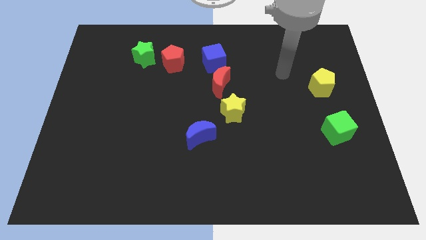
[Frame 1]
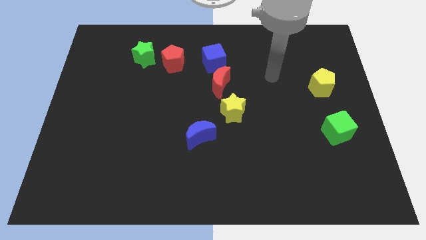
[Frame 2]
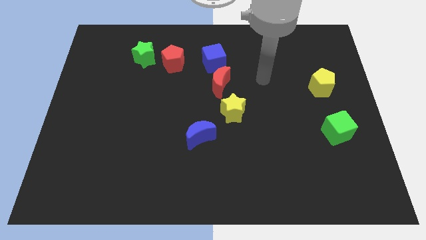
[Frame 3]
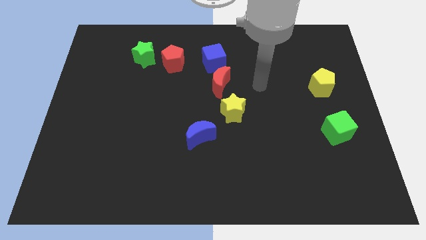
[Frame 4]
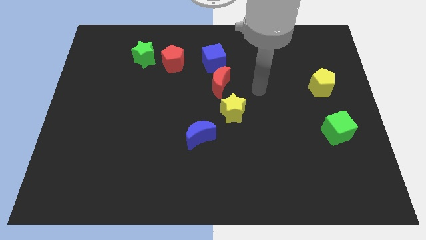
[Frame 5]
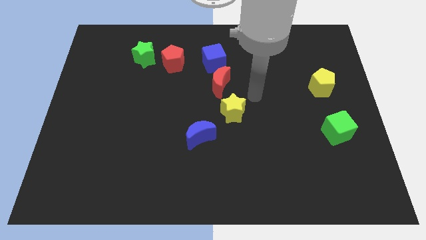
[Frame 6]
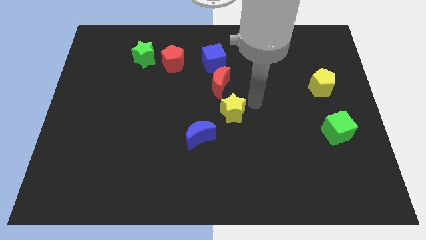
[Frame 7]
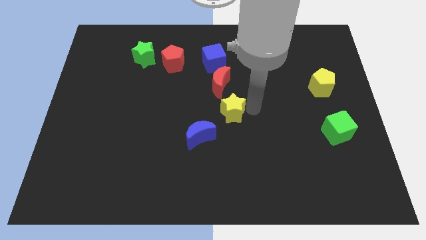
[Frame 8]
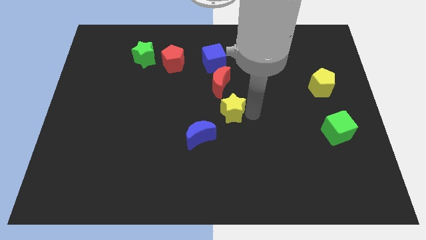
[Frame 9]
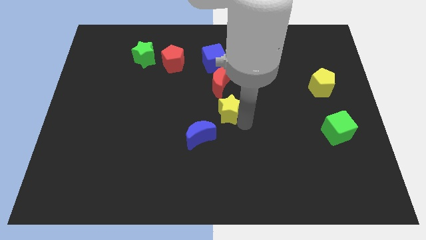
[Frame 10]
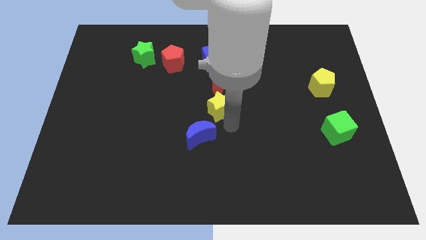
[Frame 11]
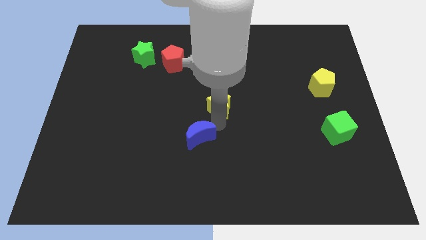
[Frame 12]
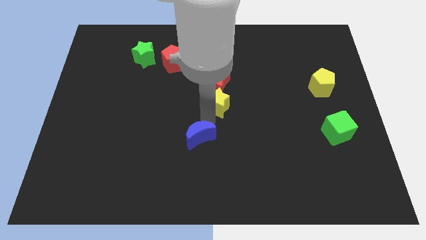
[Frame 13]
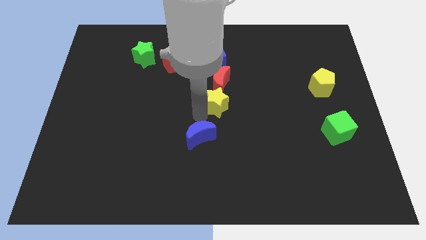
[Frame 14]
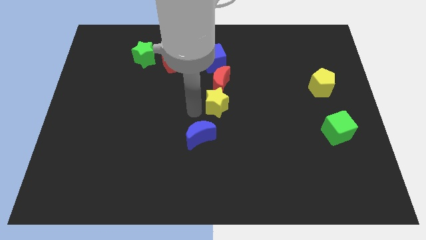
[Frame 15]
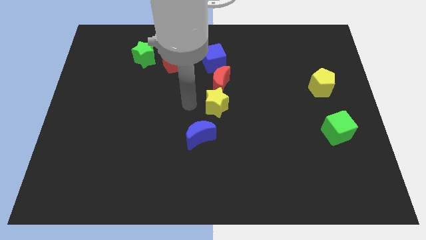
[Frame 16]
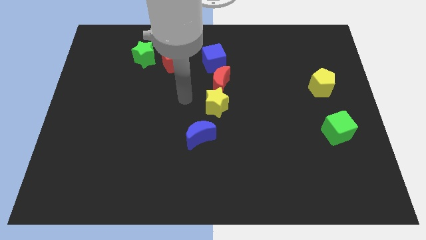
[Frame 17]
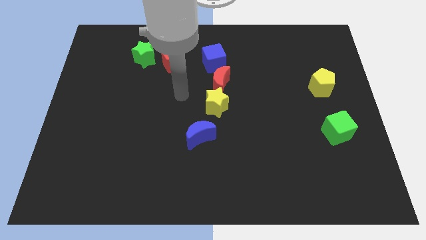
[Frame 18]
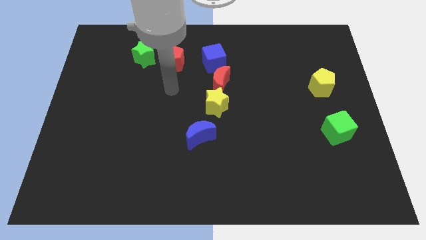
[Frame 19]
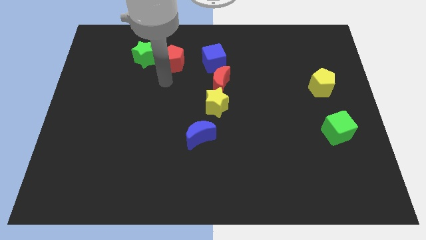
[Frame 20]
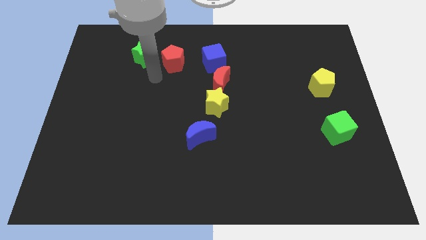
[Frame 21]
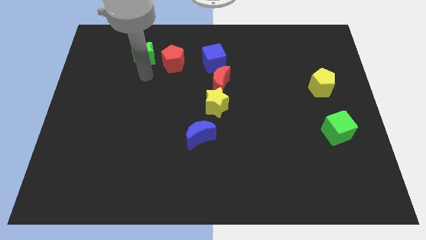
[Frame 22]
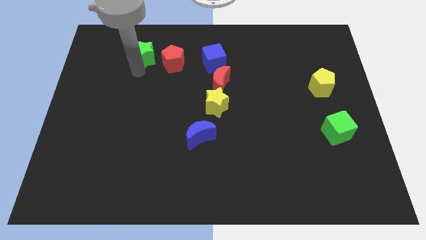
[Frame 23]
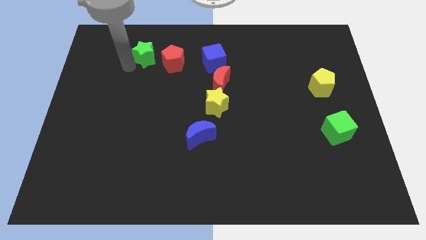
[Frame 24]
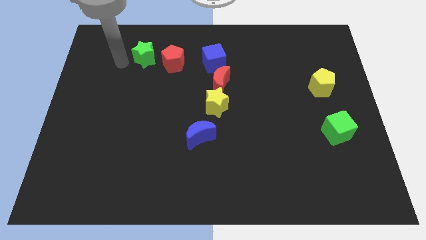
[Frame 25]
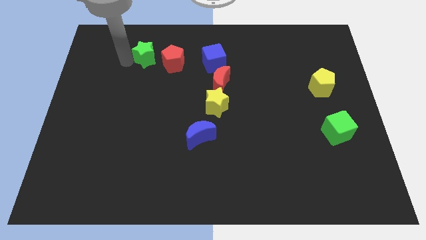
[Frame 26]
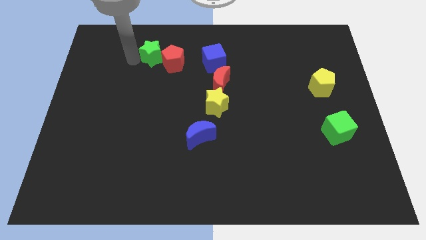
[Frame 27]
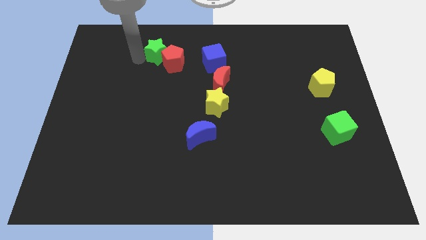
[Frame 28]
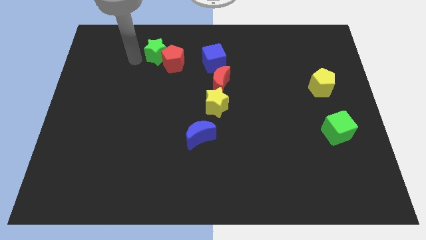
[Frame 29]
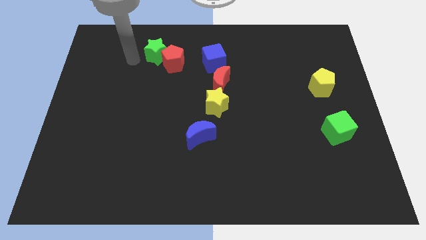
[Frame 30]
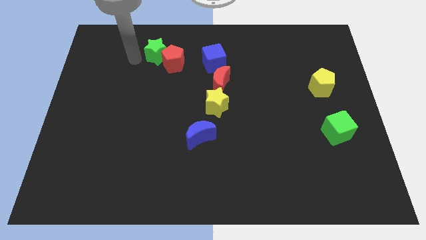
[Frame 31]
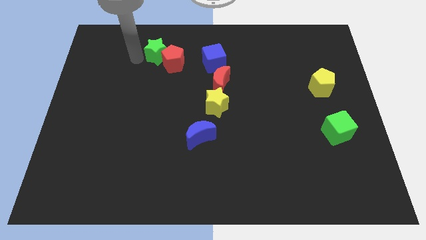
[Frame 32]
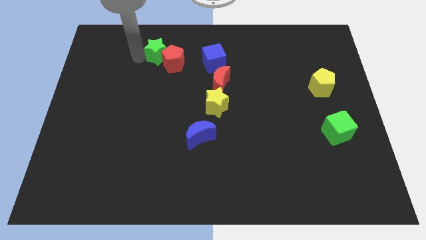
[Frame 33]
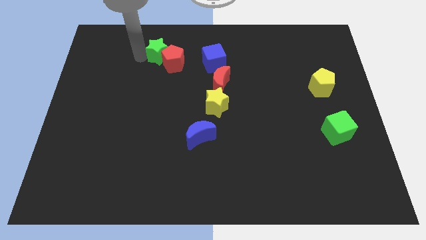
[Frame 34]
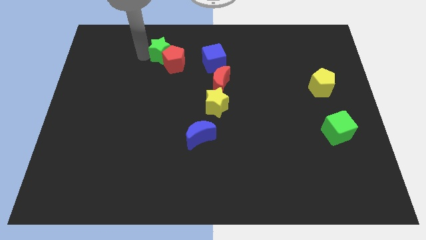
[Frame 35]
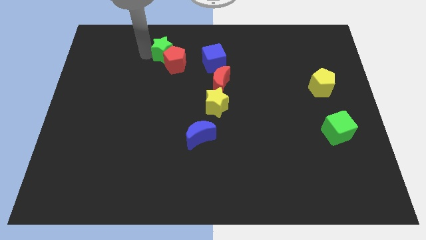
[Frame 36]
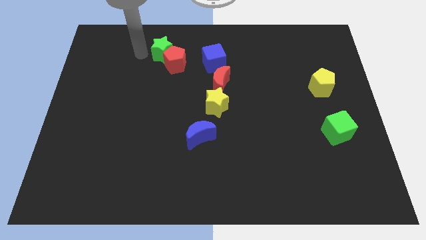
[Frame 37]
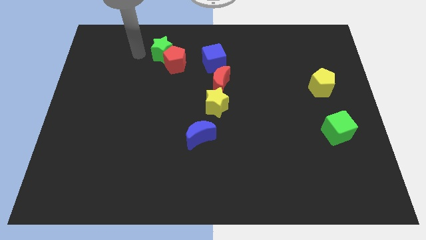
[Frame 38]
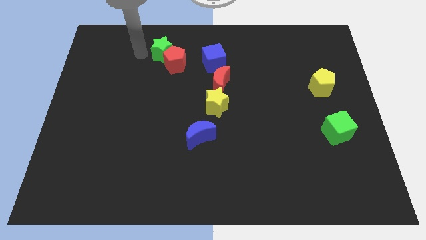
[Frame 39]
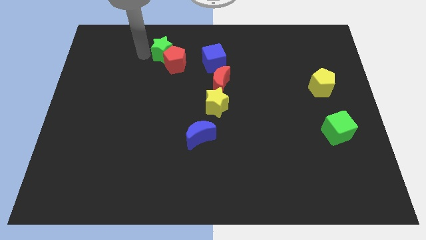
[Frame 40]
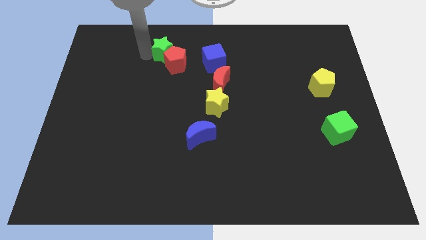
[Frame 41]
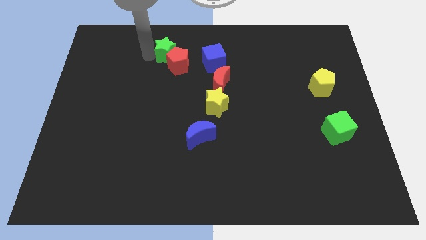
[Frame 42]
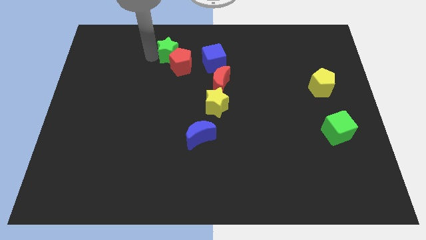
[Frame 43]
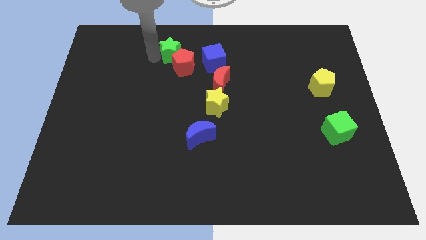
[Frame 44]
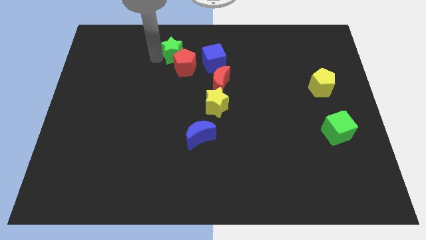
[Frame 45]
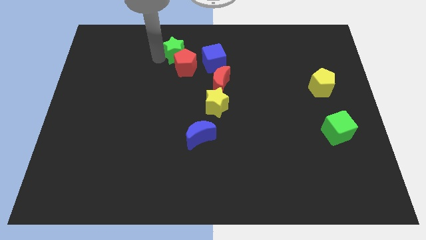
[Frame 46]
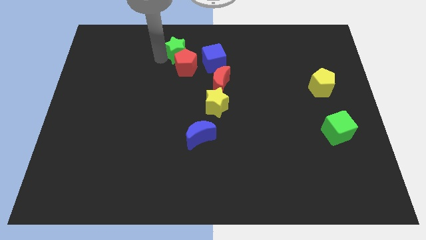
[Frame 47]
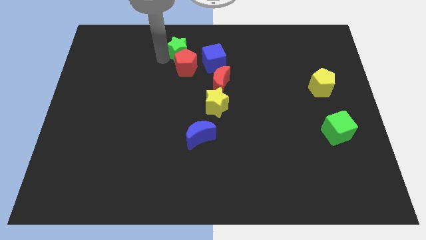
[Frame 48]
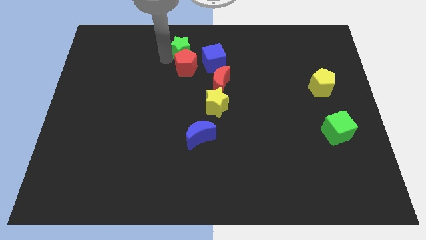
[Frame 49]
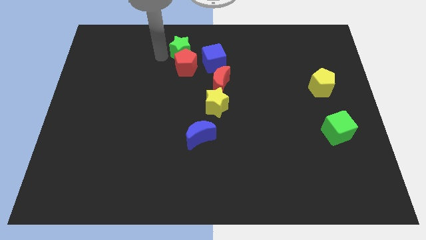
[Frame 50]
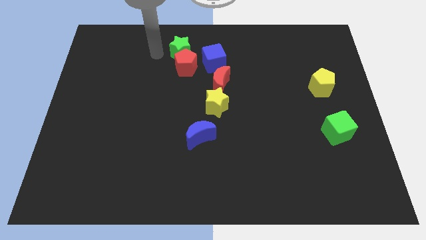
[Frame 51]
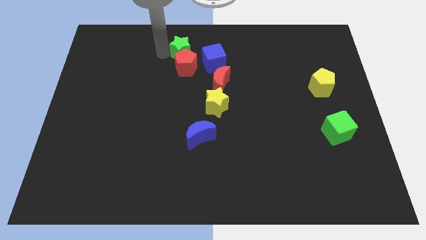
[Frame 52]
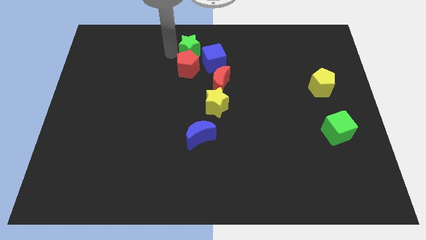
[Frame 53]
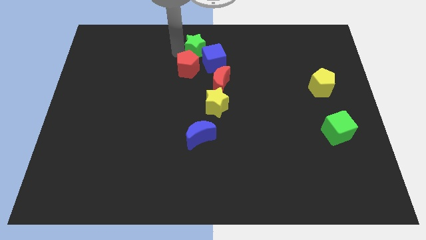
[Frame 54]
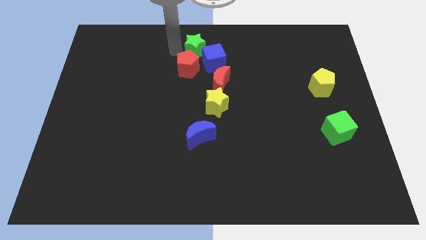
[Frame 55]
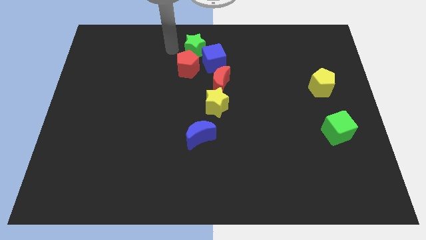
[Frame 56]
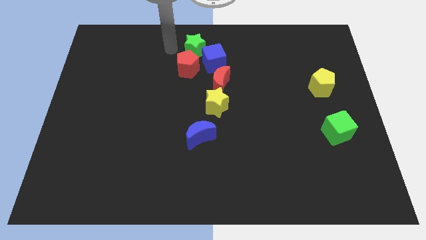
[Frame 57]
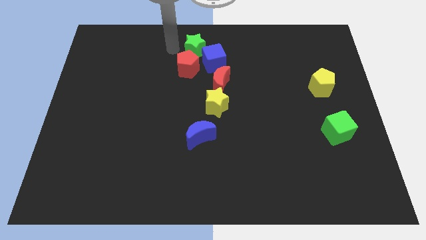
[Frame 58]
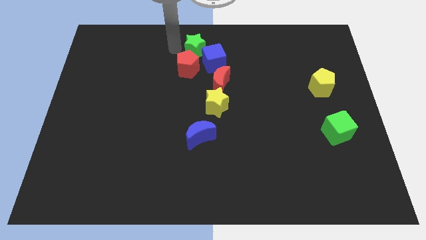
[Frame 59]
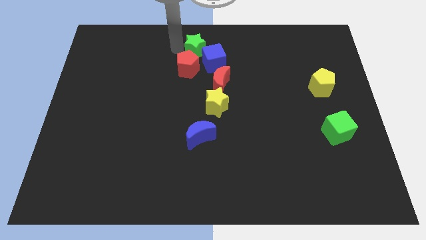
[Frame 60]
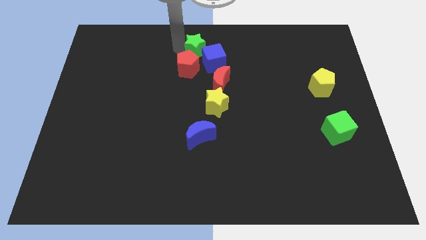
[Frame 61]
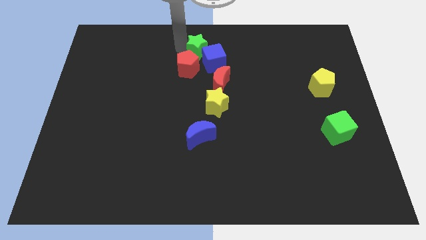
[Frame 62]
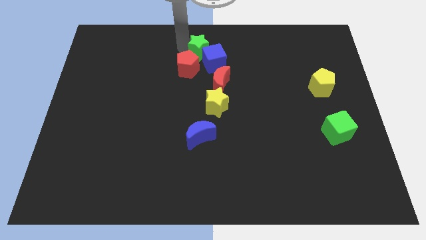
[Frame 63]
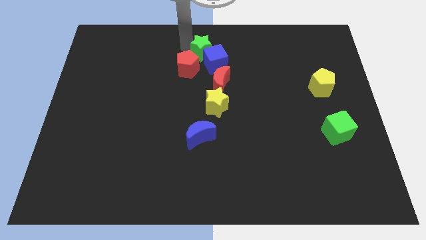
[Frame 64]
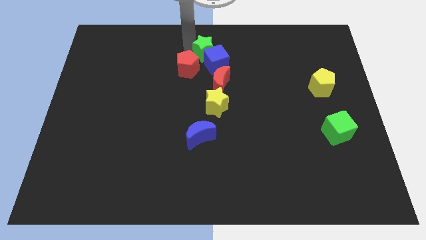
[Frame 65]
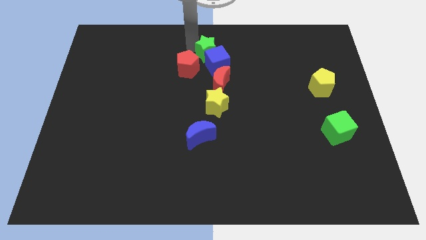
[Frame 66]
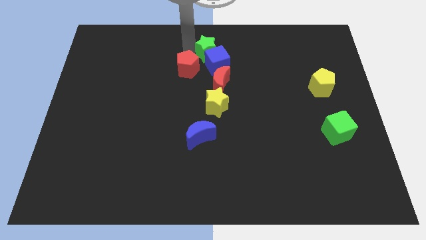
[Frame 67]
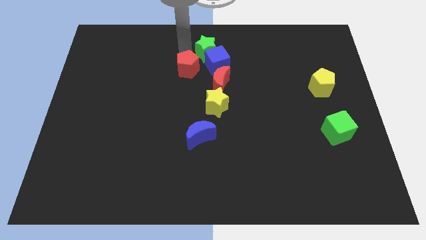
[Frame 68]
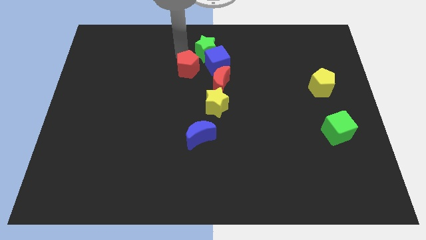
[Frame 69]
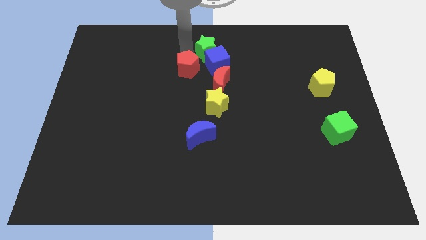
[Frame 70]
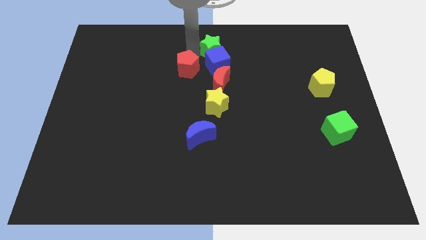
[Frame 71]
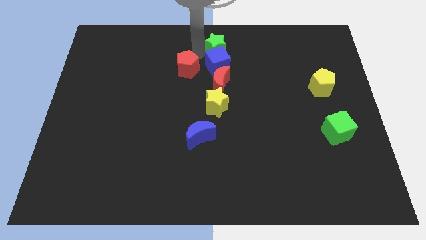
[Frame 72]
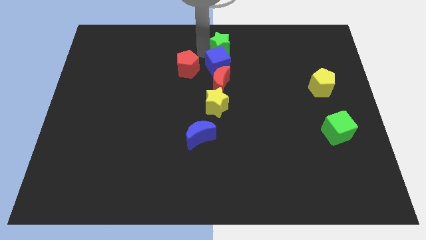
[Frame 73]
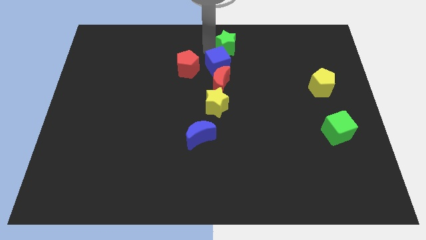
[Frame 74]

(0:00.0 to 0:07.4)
move the green star right

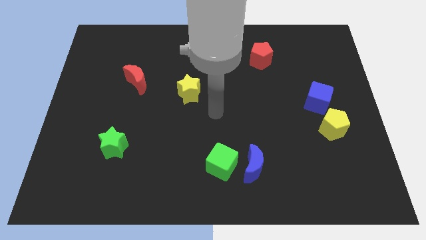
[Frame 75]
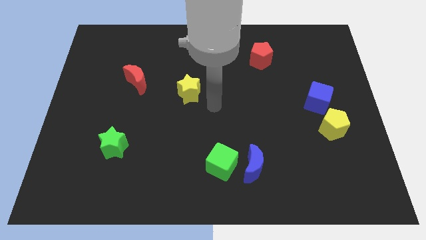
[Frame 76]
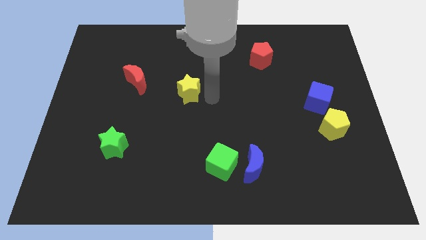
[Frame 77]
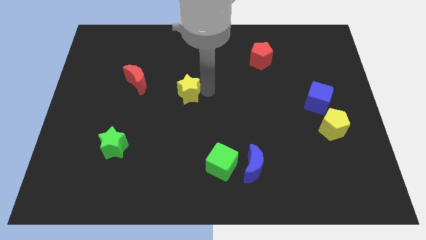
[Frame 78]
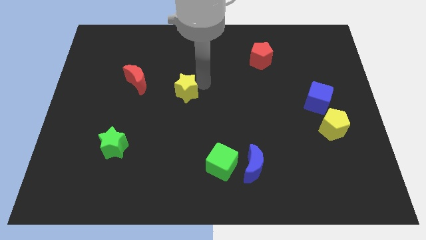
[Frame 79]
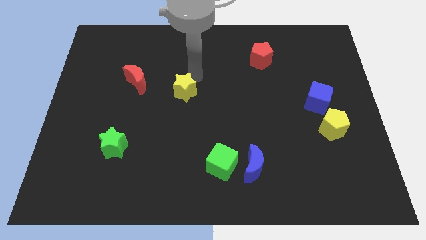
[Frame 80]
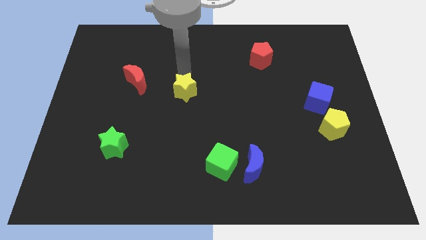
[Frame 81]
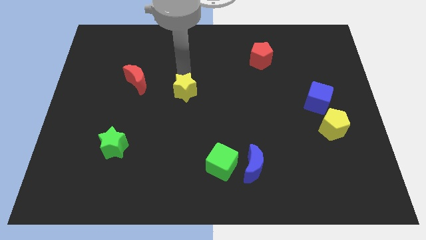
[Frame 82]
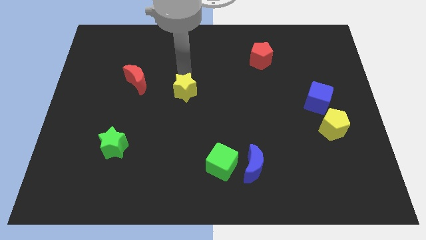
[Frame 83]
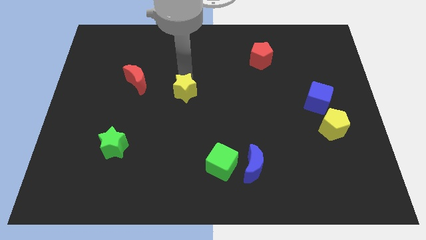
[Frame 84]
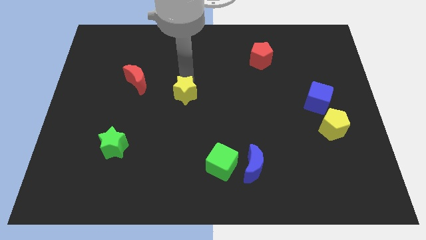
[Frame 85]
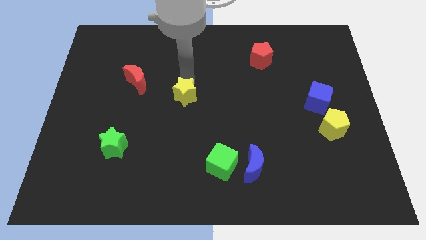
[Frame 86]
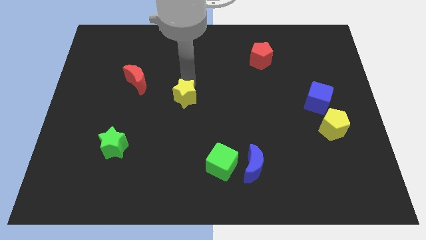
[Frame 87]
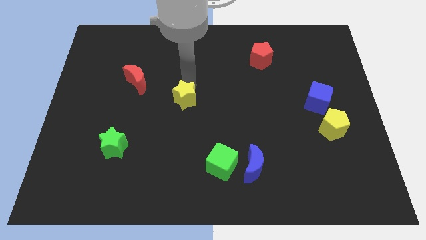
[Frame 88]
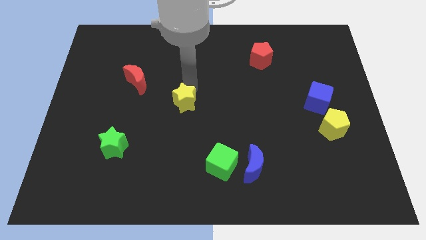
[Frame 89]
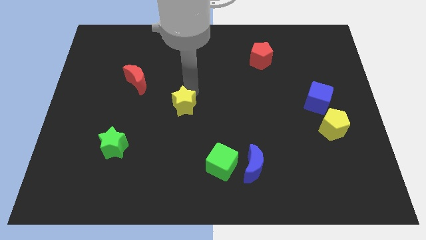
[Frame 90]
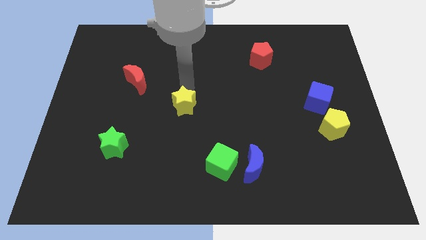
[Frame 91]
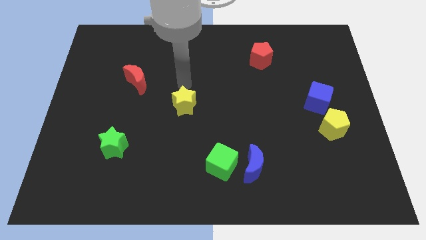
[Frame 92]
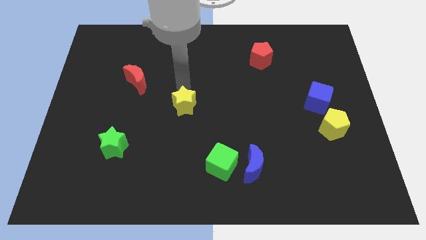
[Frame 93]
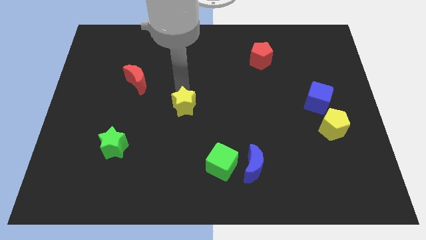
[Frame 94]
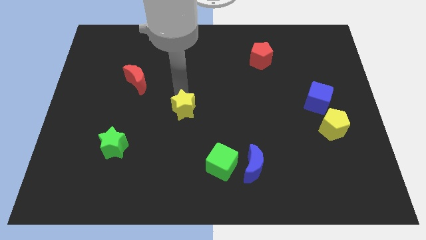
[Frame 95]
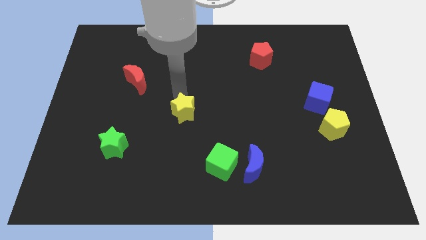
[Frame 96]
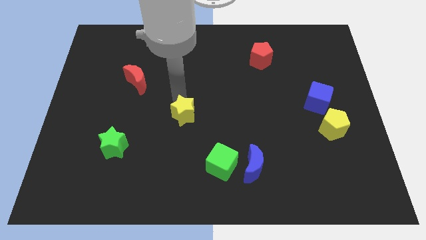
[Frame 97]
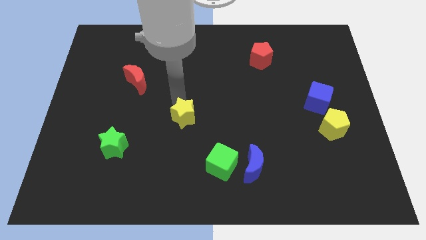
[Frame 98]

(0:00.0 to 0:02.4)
move the yellow star downwards somewhat
